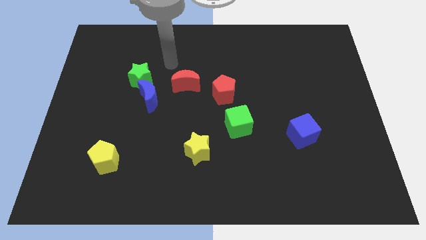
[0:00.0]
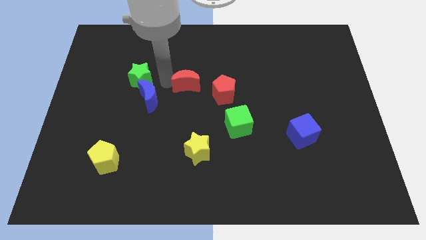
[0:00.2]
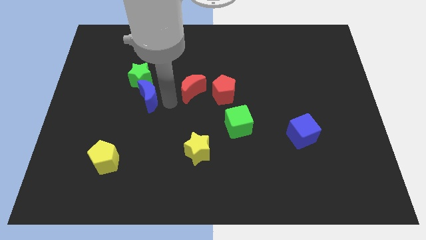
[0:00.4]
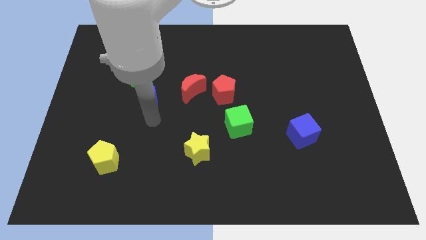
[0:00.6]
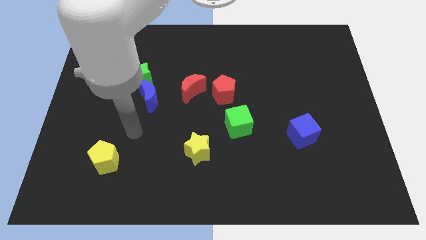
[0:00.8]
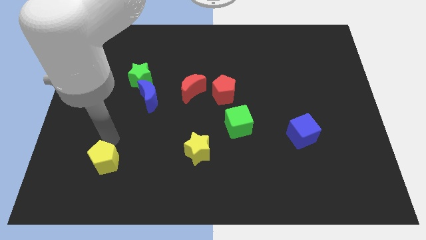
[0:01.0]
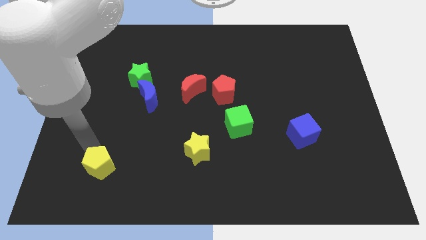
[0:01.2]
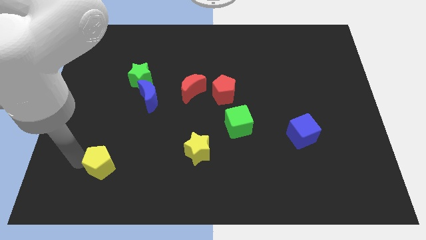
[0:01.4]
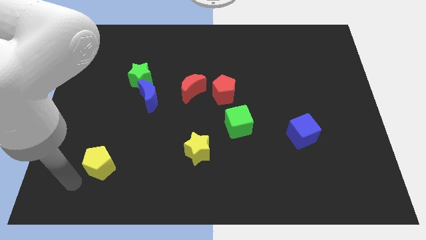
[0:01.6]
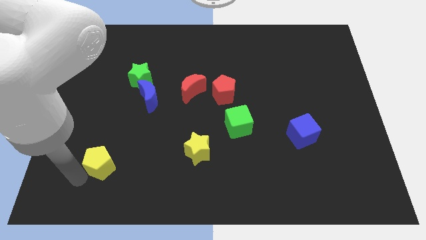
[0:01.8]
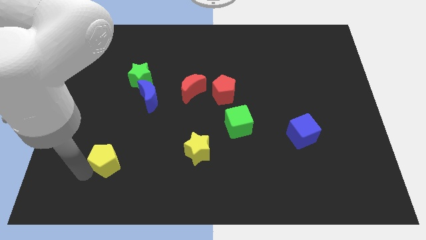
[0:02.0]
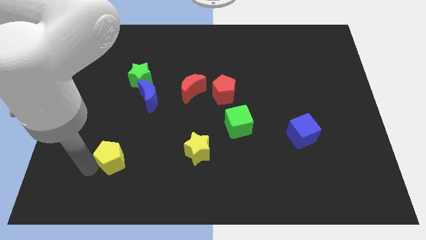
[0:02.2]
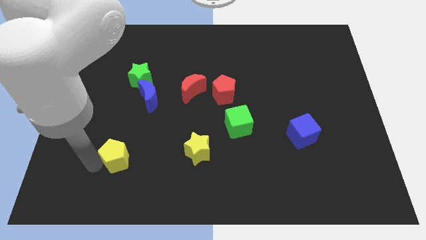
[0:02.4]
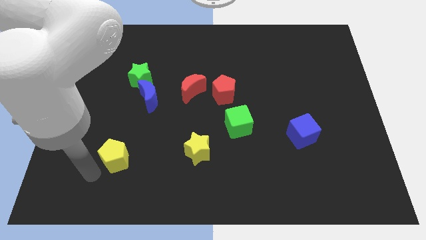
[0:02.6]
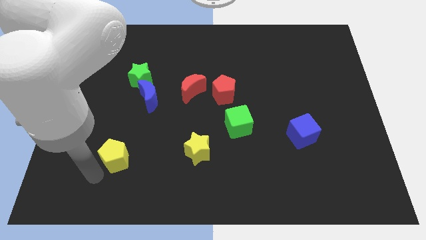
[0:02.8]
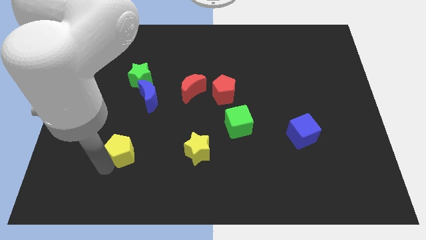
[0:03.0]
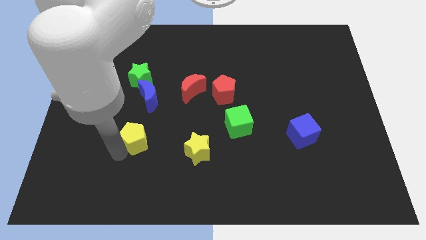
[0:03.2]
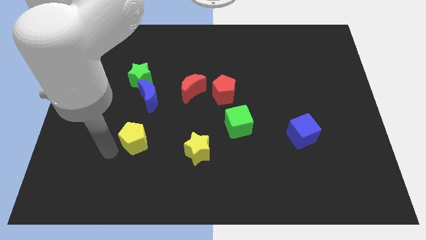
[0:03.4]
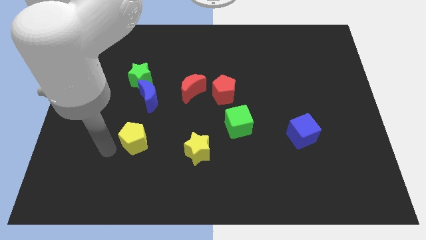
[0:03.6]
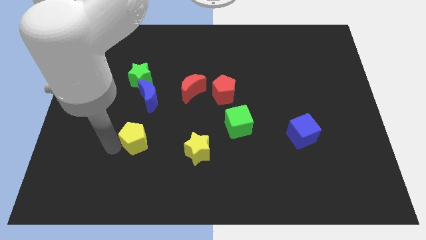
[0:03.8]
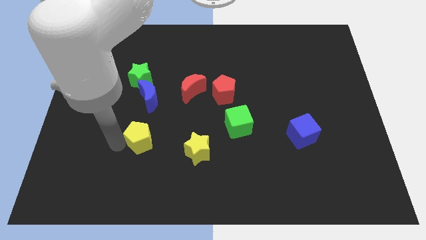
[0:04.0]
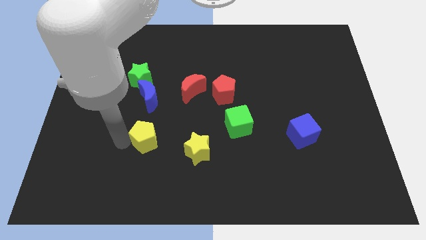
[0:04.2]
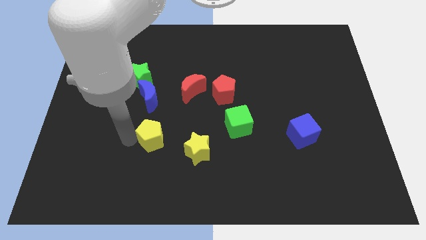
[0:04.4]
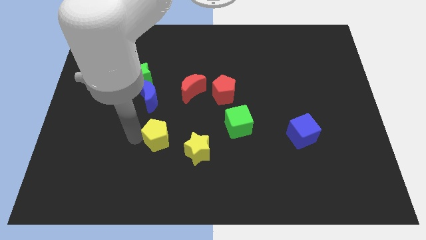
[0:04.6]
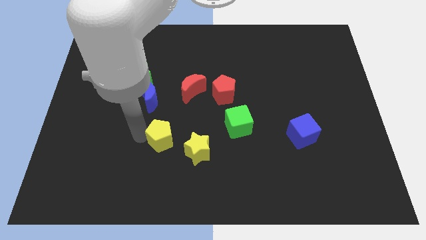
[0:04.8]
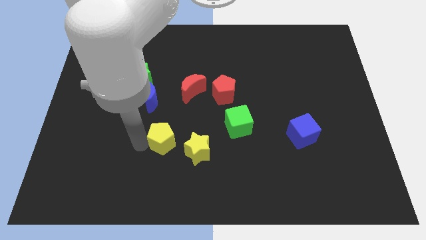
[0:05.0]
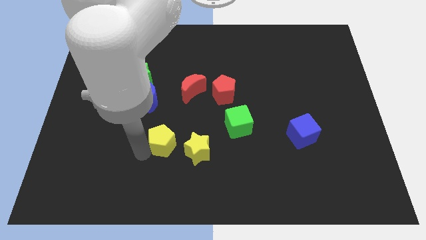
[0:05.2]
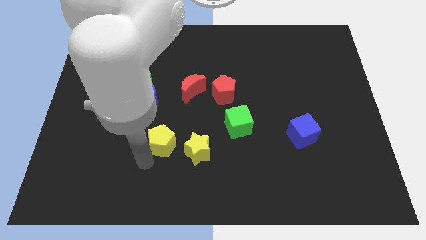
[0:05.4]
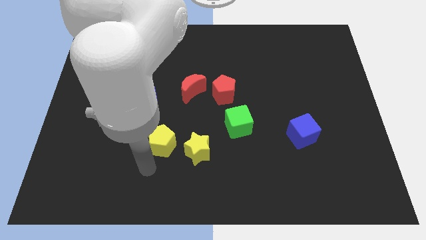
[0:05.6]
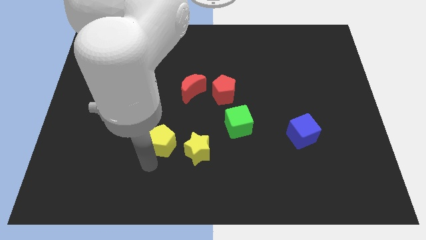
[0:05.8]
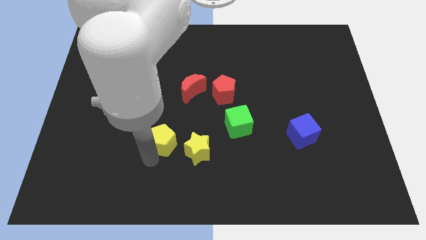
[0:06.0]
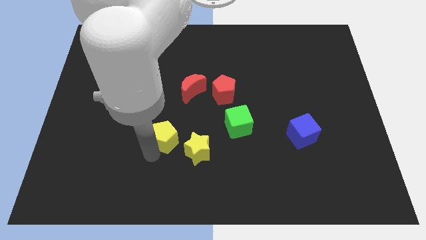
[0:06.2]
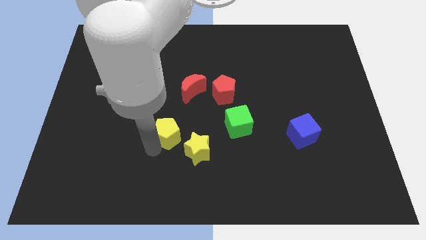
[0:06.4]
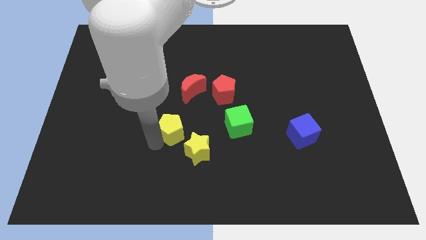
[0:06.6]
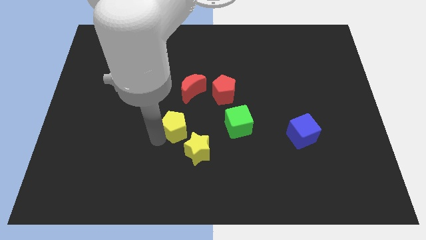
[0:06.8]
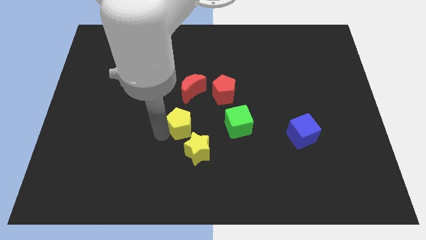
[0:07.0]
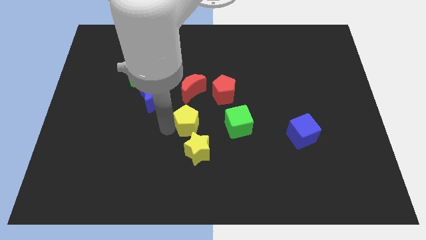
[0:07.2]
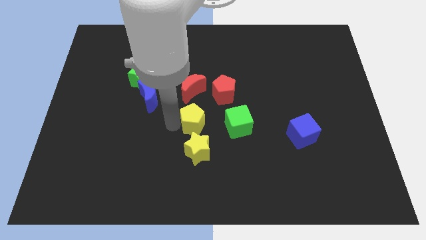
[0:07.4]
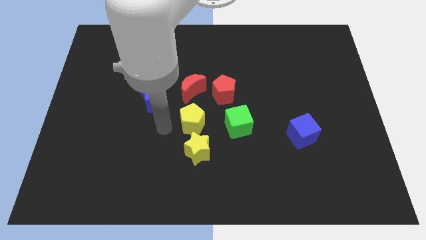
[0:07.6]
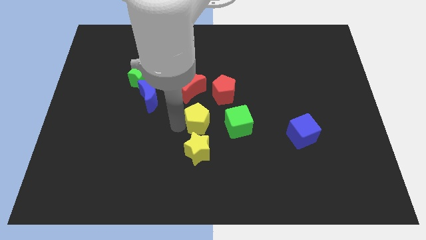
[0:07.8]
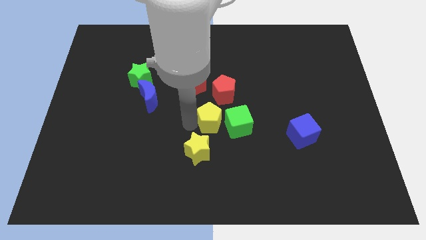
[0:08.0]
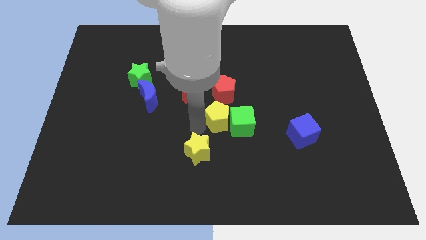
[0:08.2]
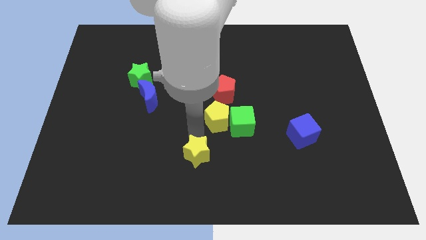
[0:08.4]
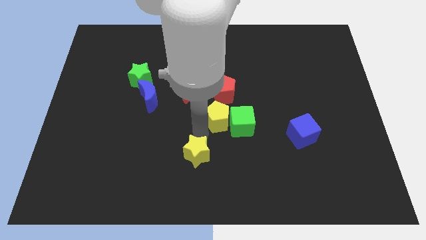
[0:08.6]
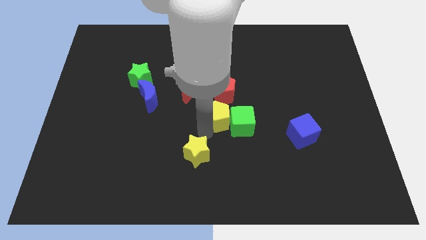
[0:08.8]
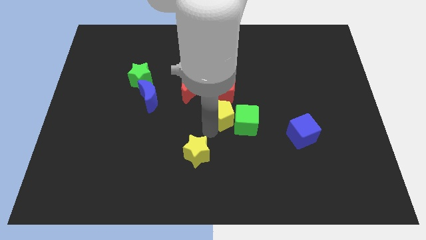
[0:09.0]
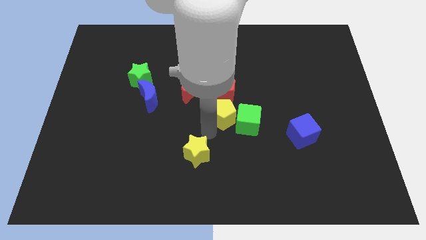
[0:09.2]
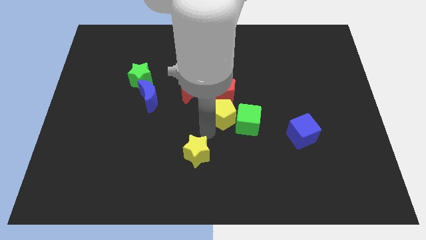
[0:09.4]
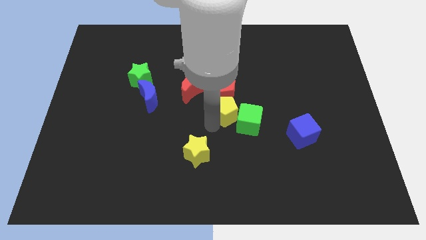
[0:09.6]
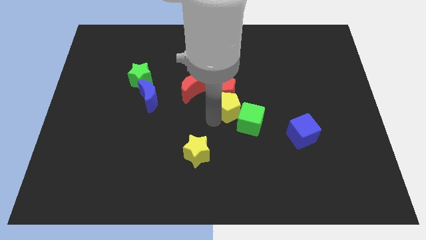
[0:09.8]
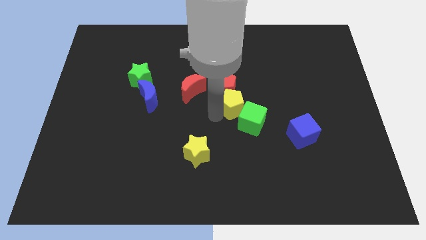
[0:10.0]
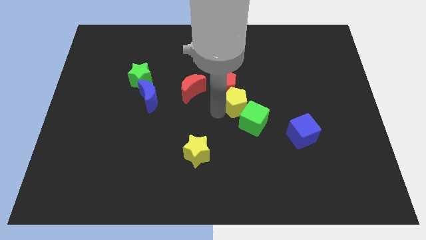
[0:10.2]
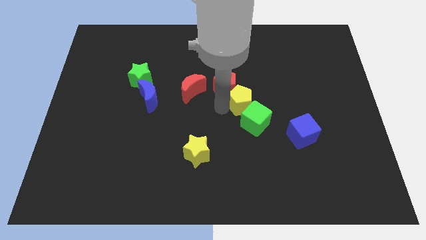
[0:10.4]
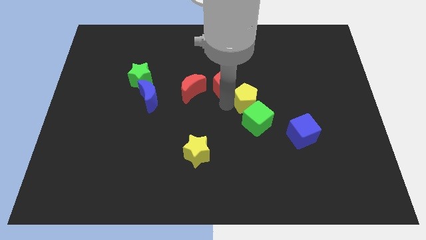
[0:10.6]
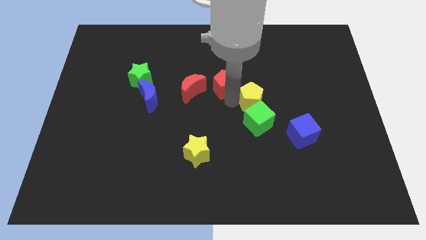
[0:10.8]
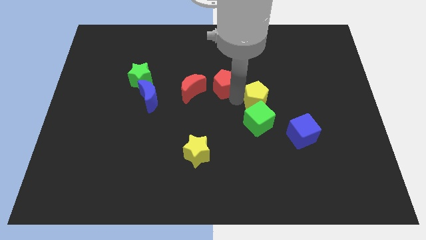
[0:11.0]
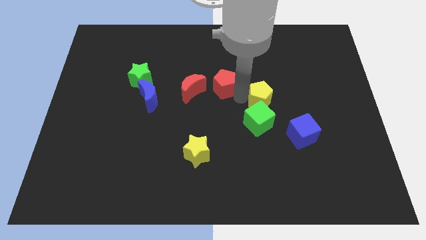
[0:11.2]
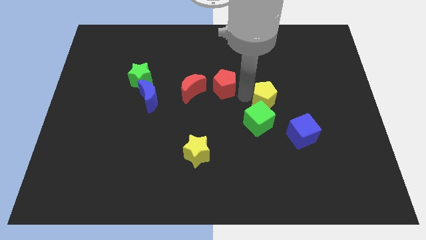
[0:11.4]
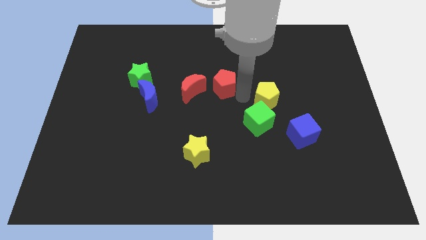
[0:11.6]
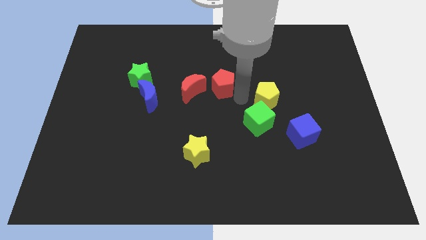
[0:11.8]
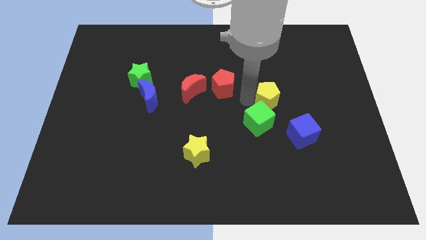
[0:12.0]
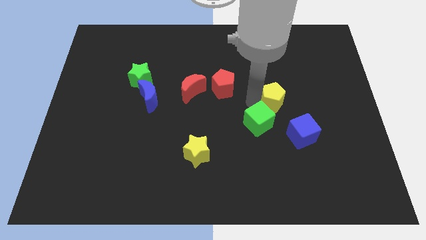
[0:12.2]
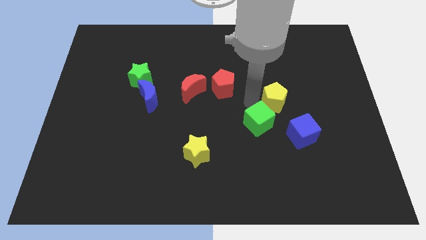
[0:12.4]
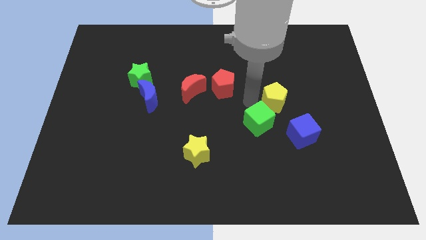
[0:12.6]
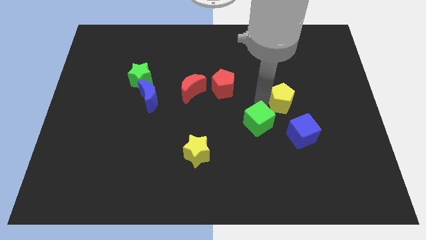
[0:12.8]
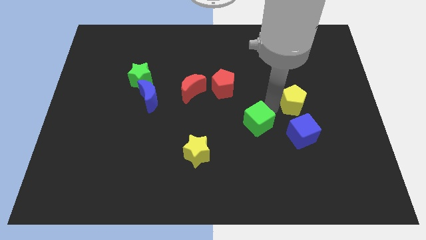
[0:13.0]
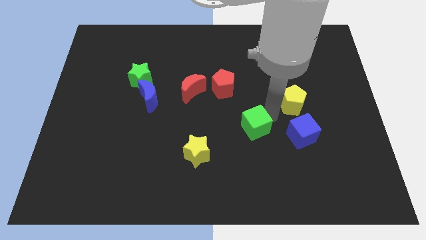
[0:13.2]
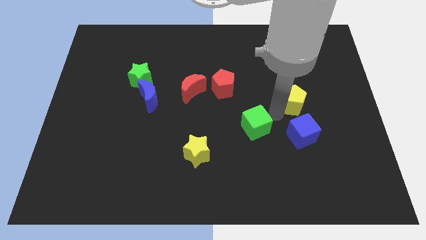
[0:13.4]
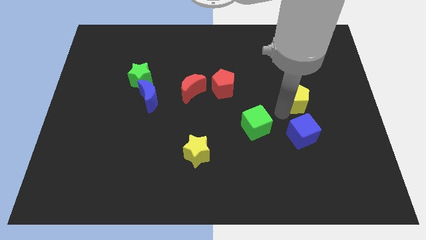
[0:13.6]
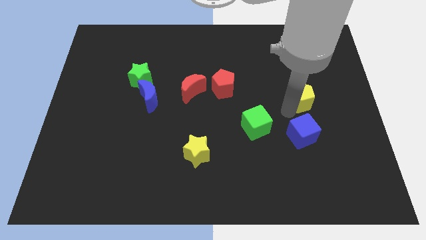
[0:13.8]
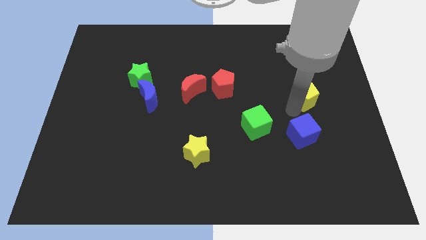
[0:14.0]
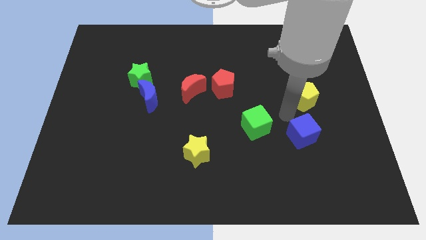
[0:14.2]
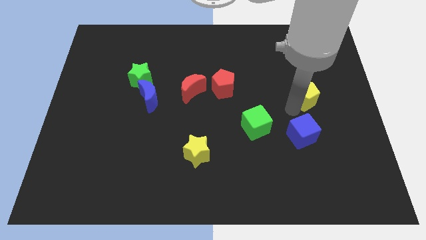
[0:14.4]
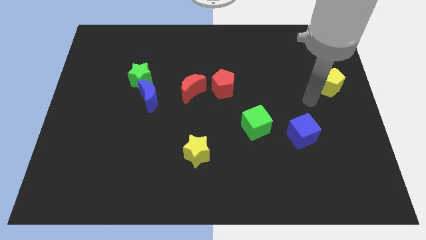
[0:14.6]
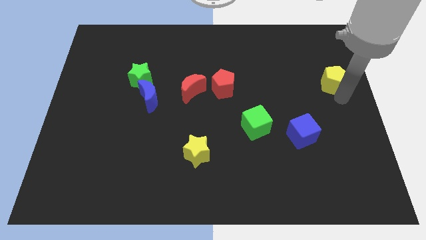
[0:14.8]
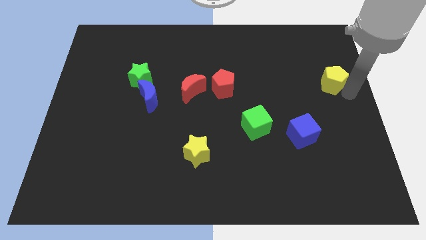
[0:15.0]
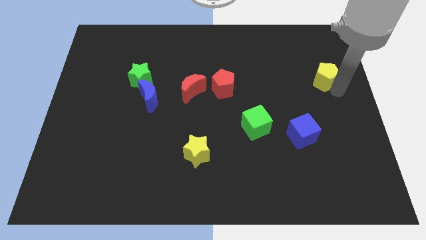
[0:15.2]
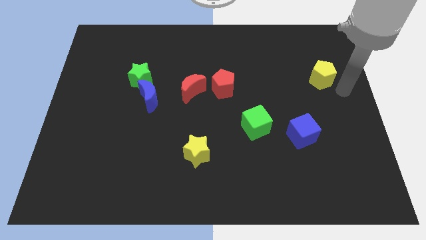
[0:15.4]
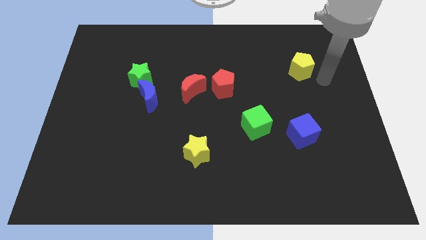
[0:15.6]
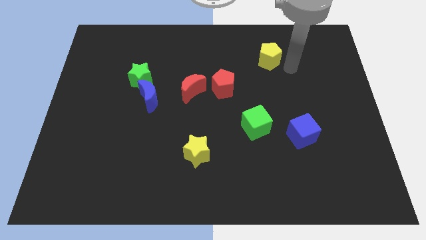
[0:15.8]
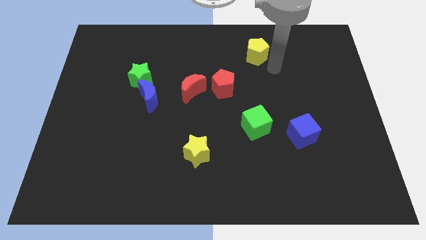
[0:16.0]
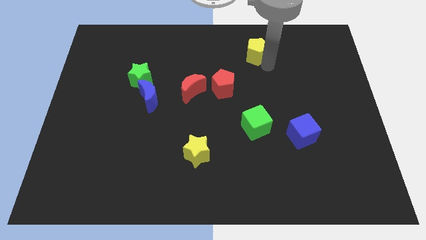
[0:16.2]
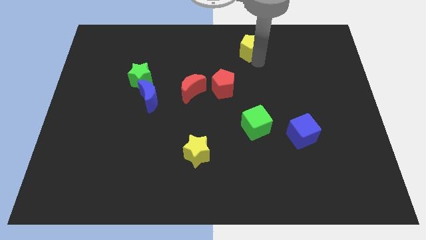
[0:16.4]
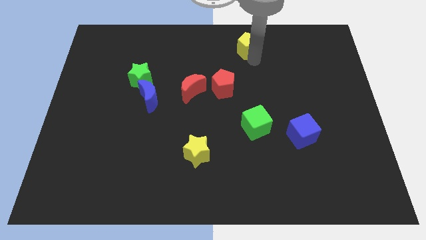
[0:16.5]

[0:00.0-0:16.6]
move the yellow pentagon to the top
